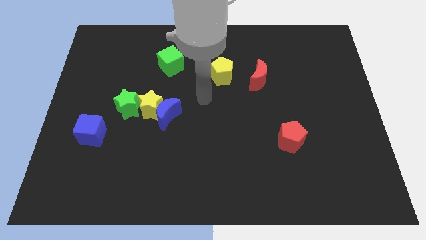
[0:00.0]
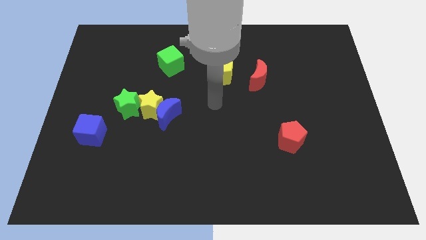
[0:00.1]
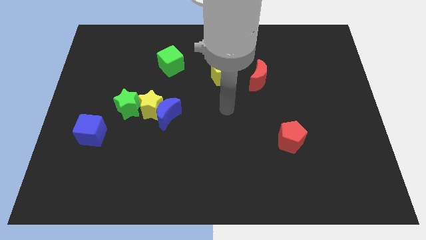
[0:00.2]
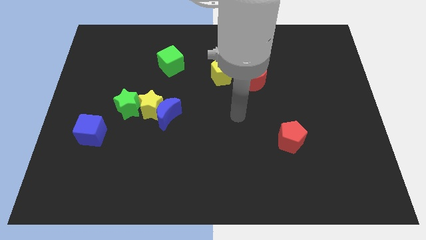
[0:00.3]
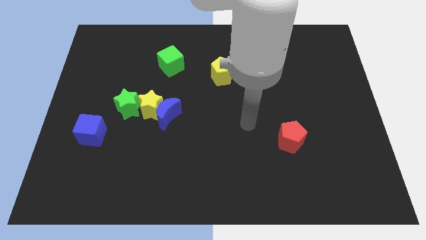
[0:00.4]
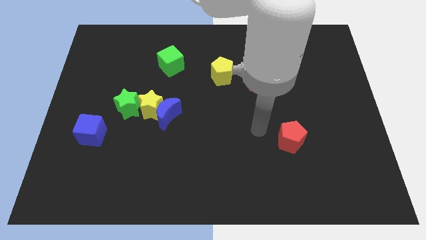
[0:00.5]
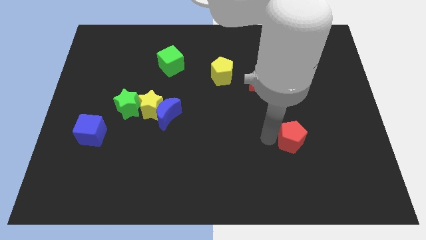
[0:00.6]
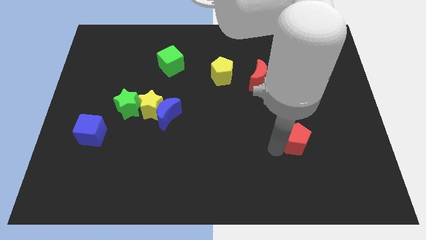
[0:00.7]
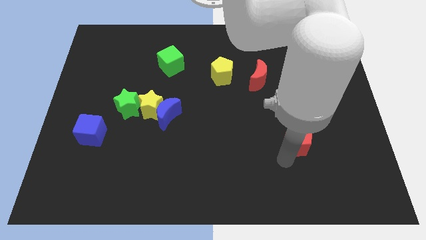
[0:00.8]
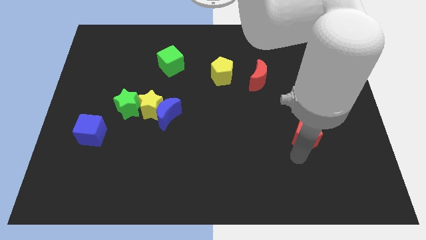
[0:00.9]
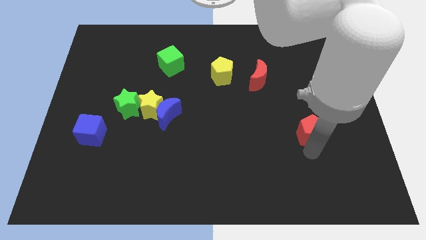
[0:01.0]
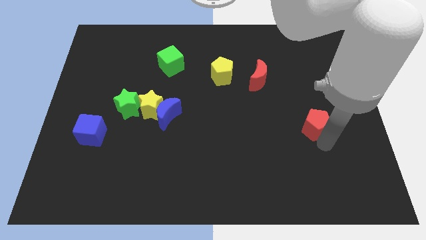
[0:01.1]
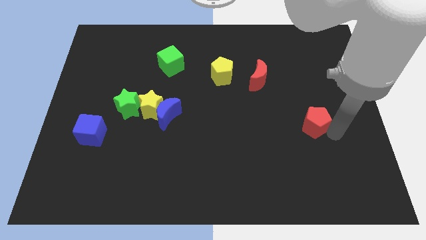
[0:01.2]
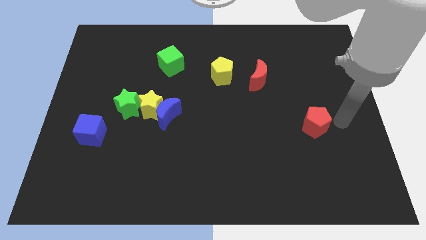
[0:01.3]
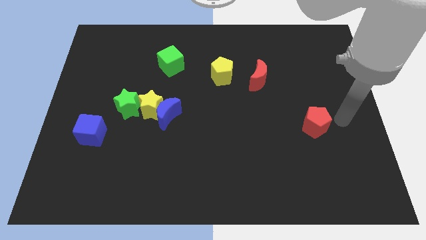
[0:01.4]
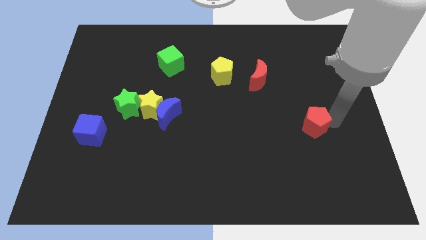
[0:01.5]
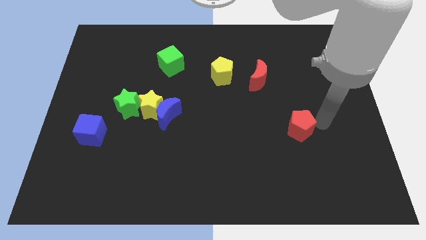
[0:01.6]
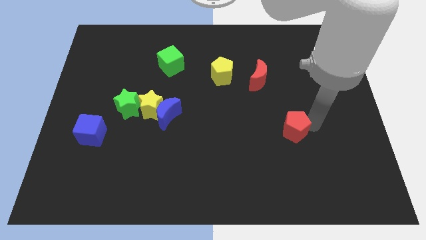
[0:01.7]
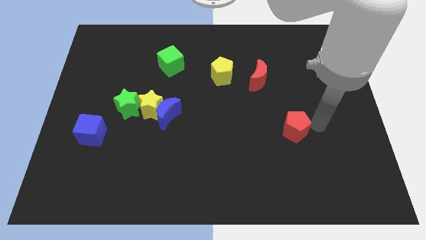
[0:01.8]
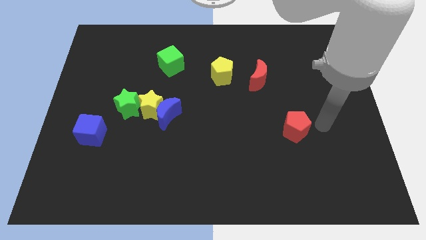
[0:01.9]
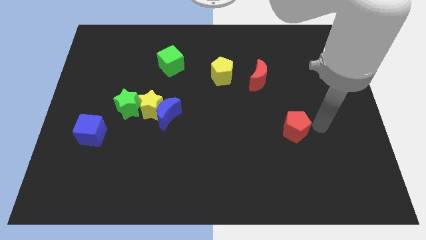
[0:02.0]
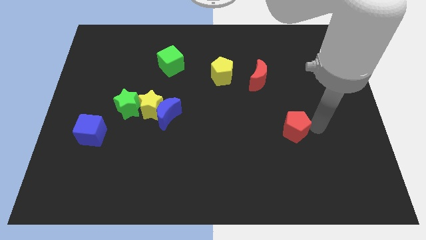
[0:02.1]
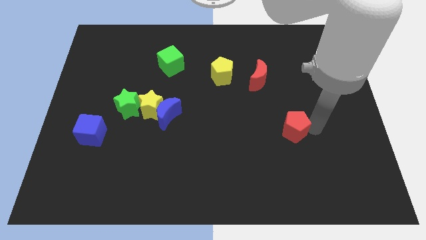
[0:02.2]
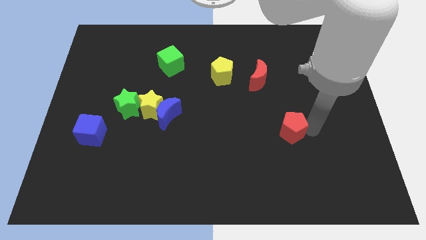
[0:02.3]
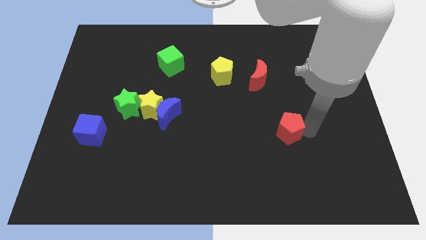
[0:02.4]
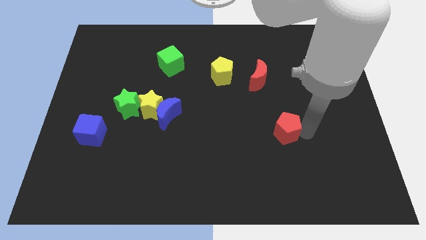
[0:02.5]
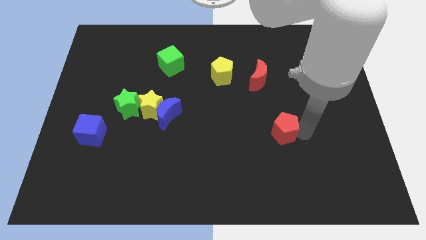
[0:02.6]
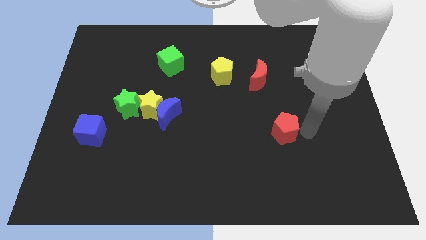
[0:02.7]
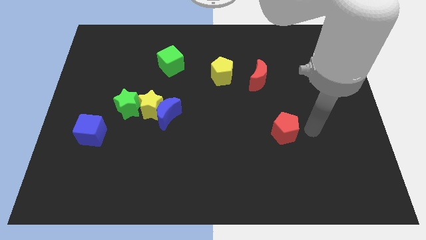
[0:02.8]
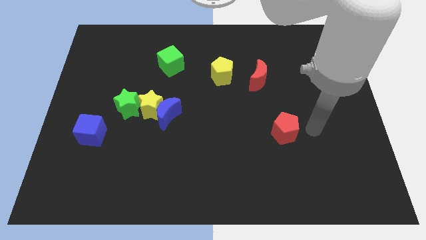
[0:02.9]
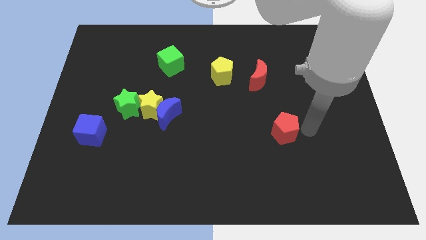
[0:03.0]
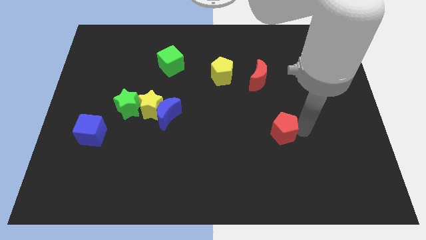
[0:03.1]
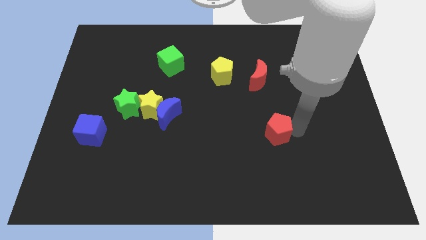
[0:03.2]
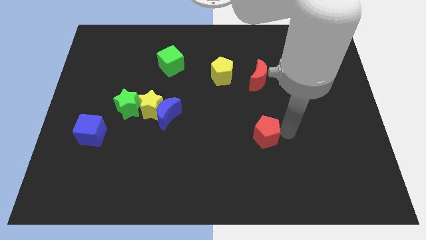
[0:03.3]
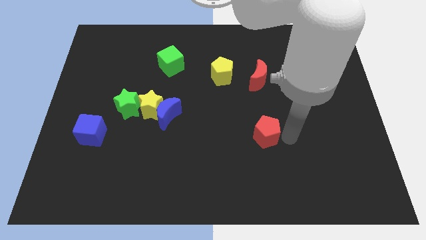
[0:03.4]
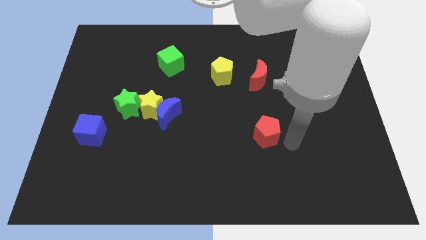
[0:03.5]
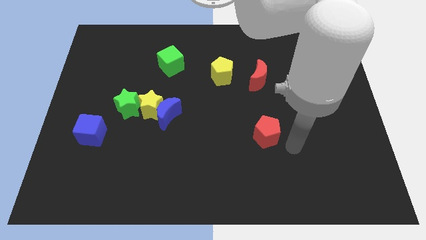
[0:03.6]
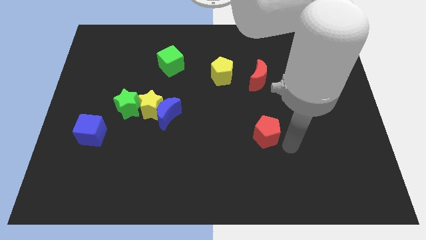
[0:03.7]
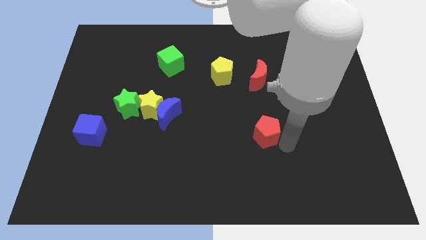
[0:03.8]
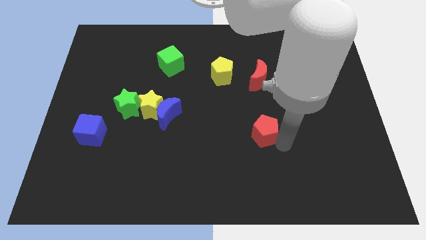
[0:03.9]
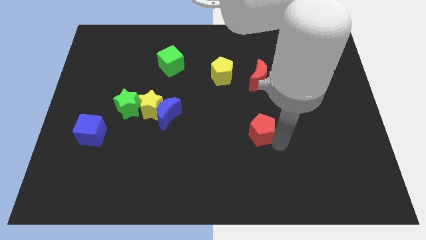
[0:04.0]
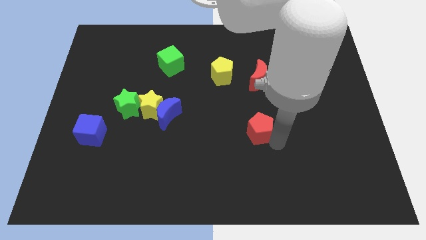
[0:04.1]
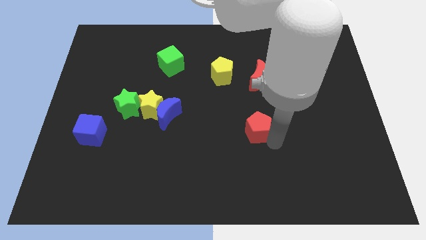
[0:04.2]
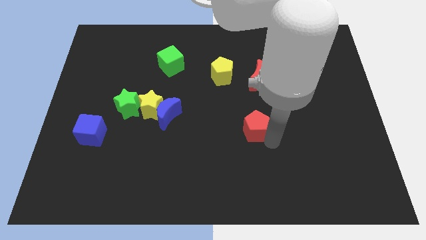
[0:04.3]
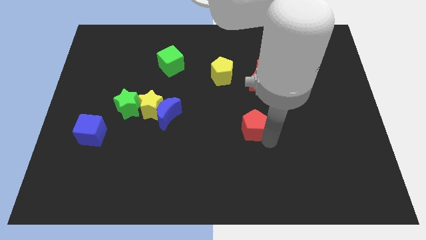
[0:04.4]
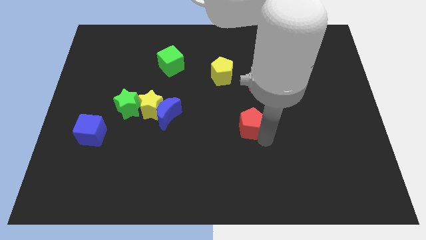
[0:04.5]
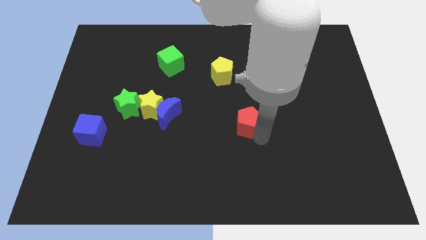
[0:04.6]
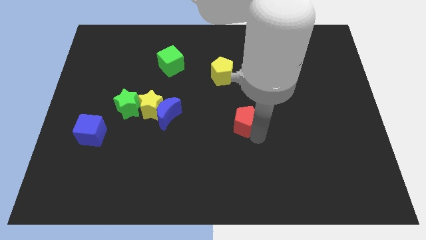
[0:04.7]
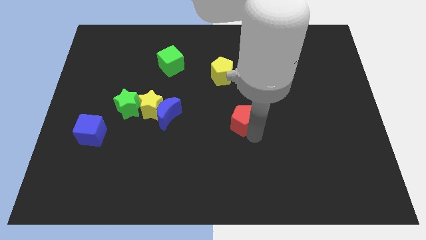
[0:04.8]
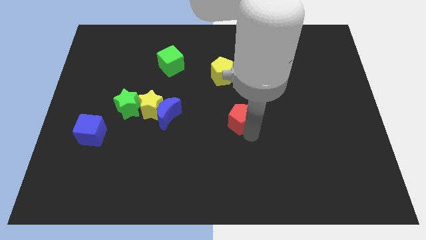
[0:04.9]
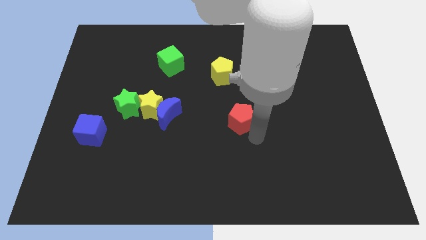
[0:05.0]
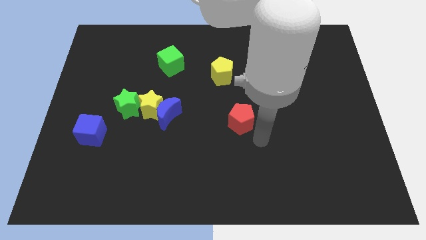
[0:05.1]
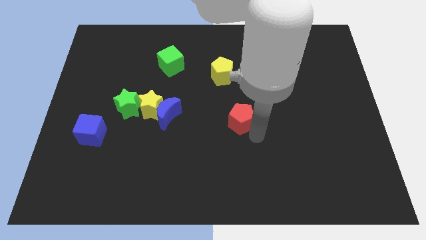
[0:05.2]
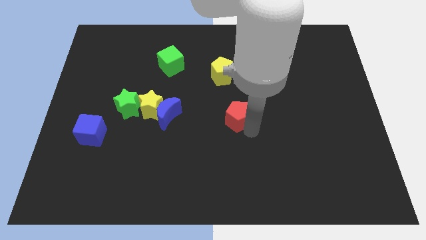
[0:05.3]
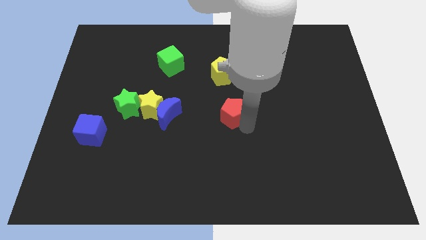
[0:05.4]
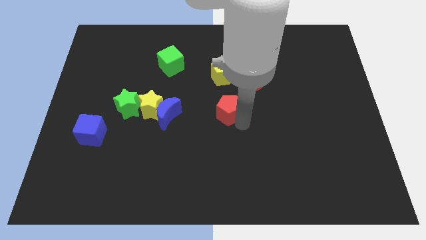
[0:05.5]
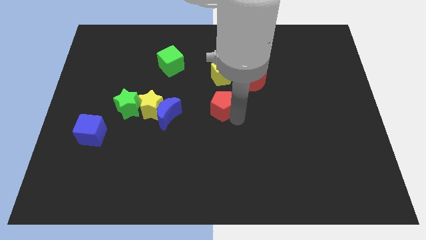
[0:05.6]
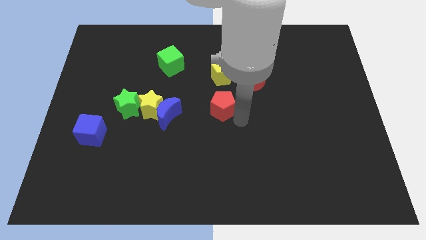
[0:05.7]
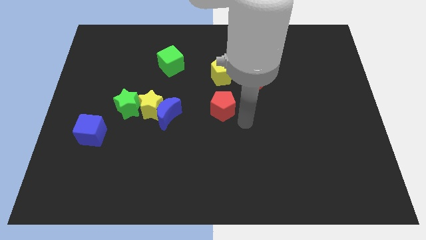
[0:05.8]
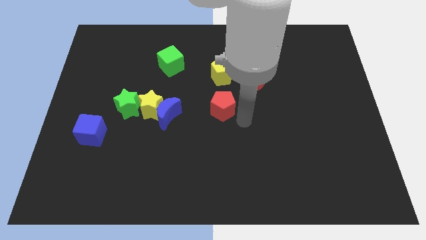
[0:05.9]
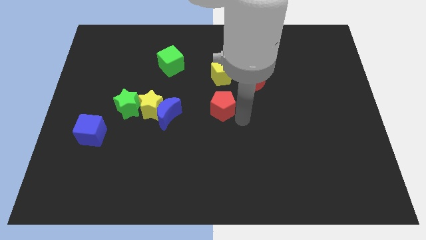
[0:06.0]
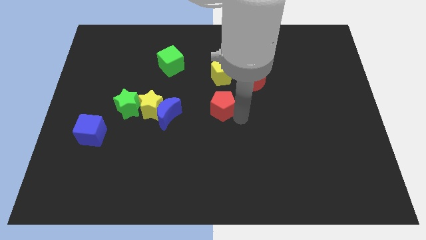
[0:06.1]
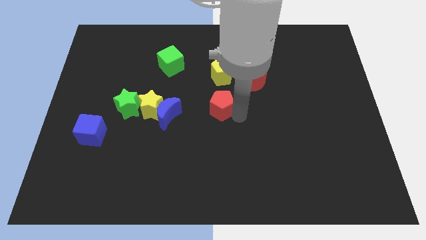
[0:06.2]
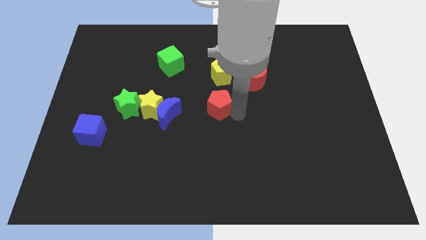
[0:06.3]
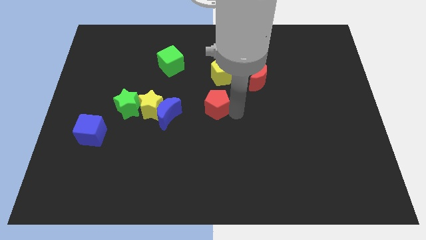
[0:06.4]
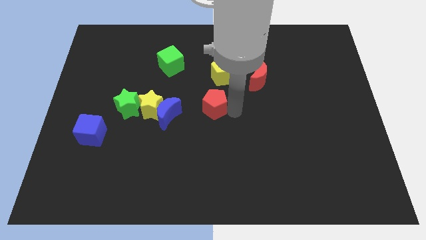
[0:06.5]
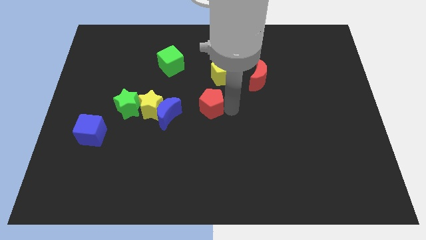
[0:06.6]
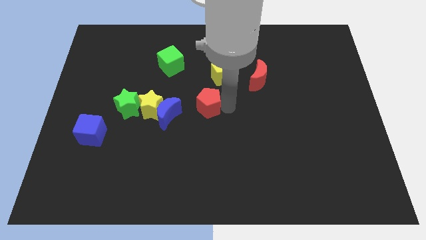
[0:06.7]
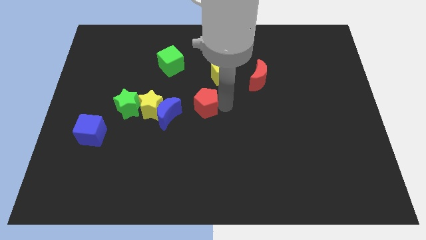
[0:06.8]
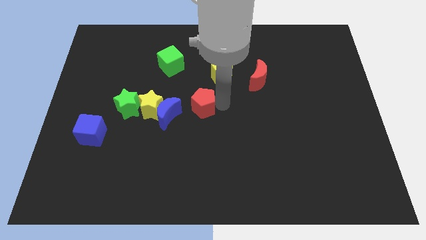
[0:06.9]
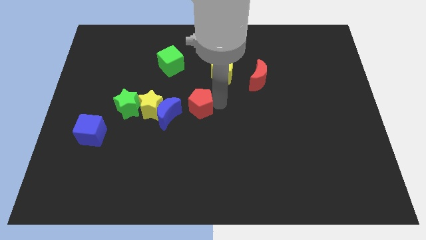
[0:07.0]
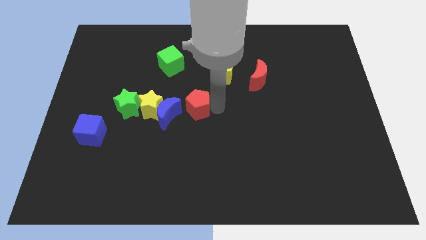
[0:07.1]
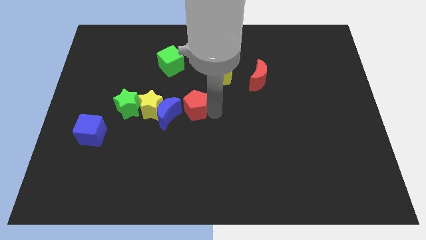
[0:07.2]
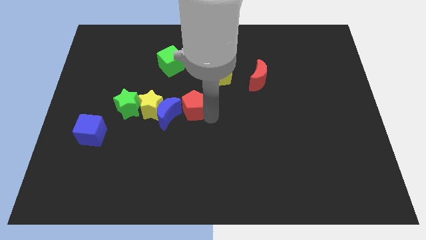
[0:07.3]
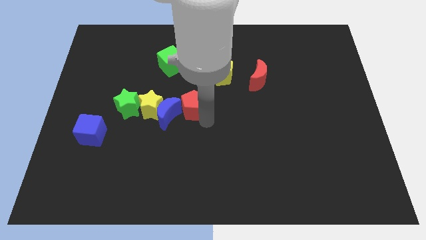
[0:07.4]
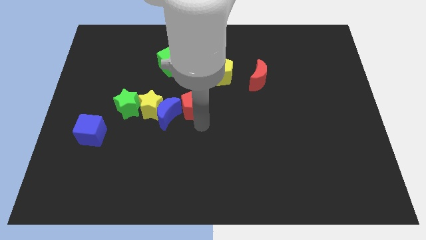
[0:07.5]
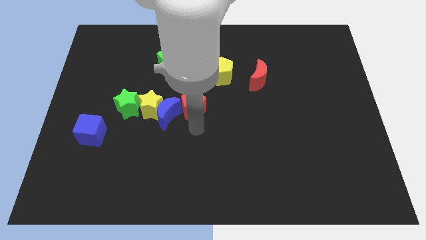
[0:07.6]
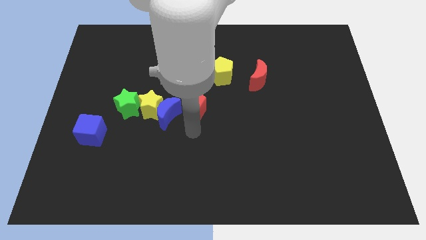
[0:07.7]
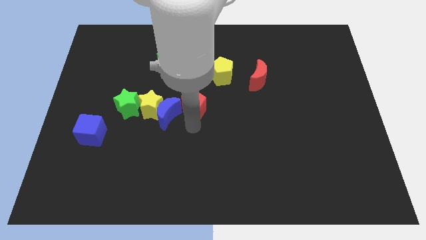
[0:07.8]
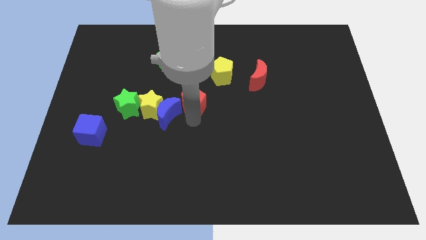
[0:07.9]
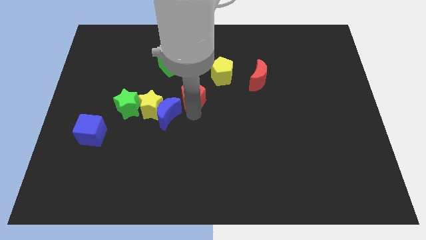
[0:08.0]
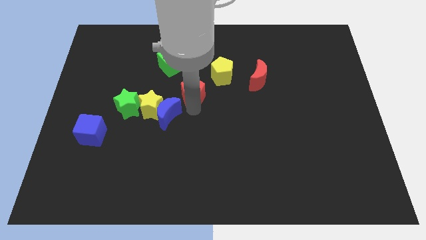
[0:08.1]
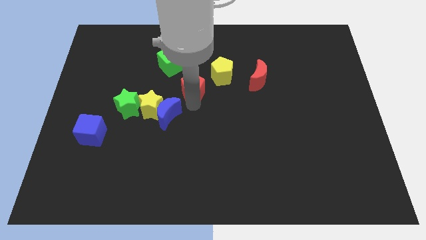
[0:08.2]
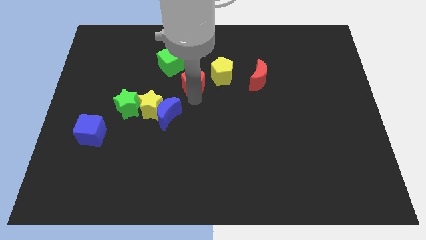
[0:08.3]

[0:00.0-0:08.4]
slide the red pentagon to the left side of the yellow pentagon
